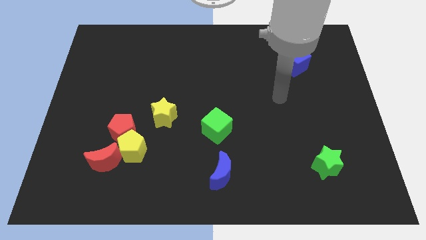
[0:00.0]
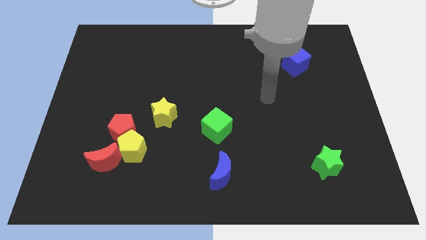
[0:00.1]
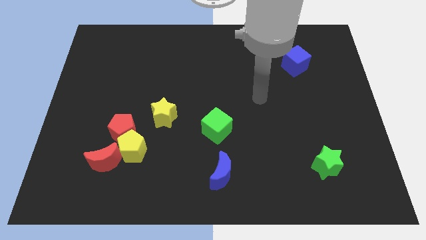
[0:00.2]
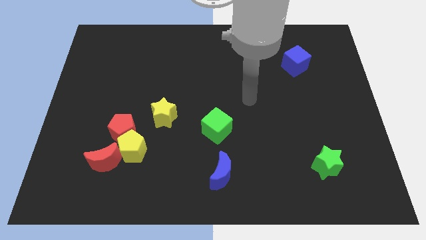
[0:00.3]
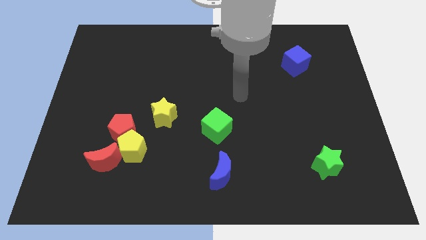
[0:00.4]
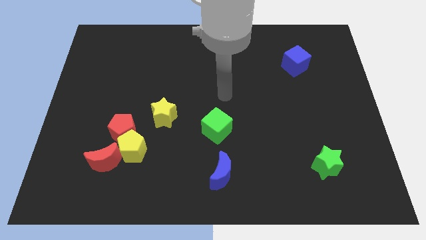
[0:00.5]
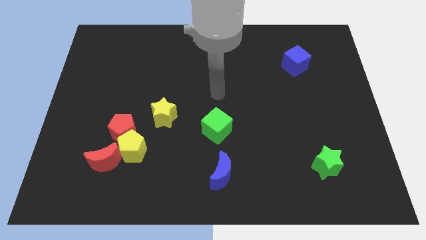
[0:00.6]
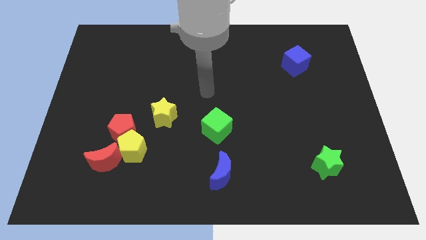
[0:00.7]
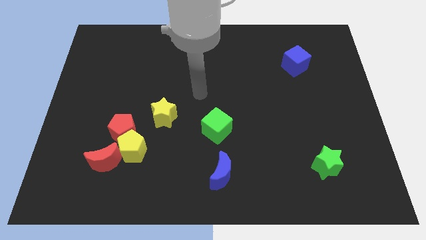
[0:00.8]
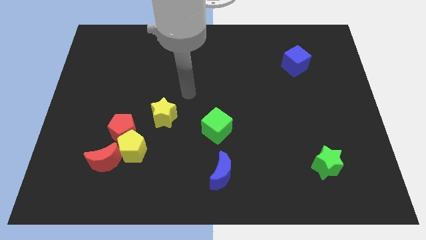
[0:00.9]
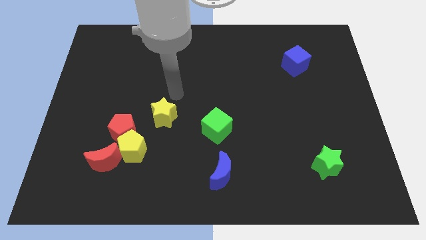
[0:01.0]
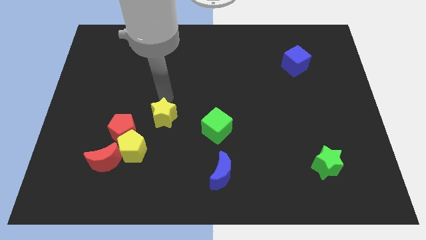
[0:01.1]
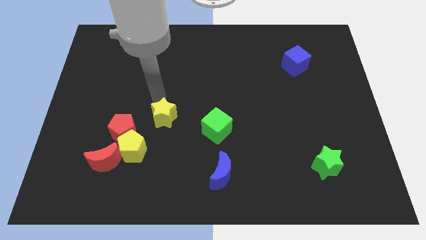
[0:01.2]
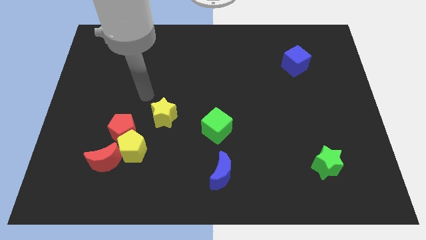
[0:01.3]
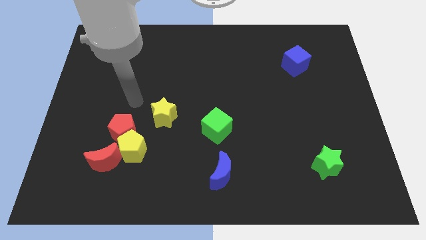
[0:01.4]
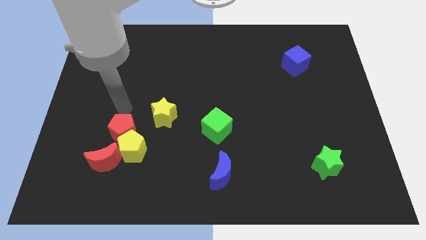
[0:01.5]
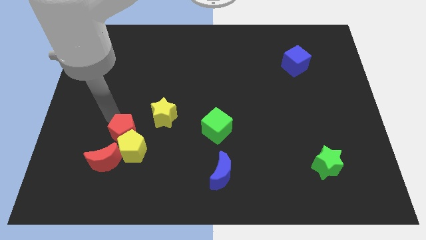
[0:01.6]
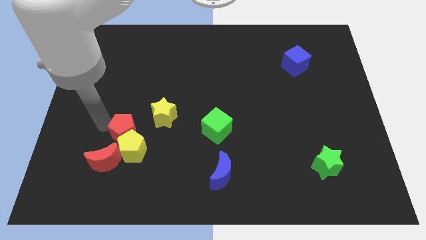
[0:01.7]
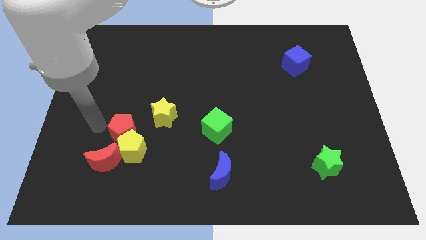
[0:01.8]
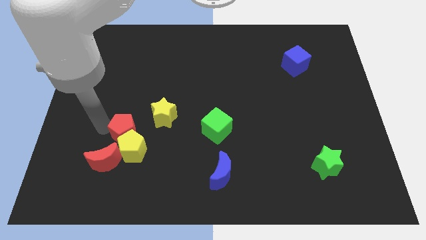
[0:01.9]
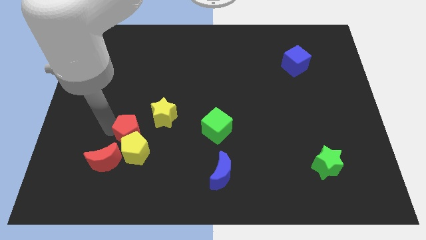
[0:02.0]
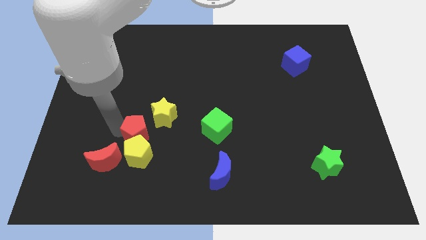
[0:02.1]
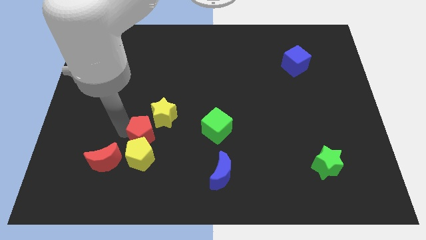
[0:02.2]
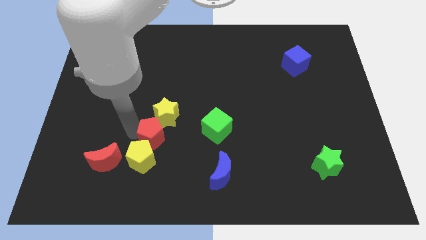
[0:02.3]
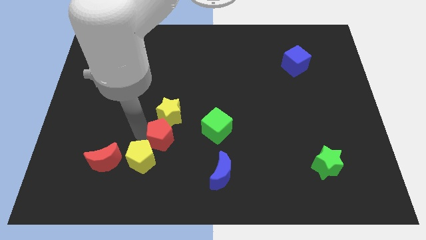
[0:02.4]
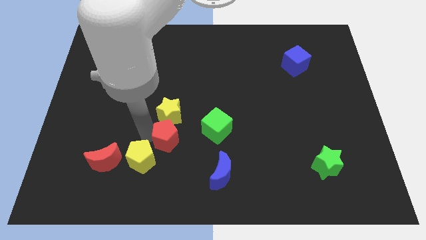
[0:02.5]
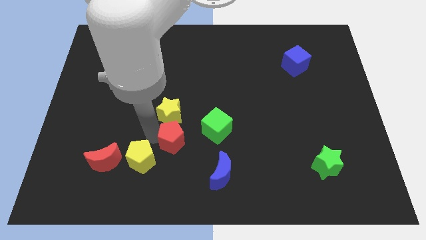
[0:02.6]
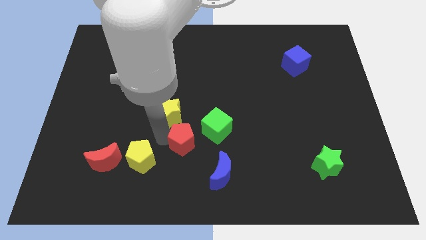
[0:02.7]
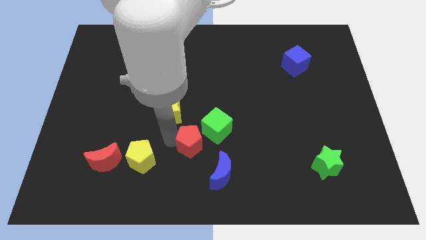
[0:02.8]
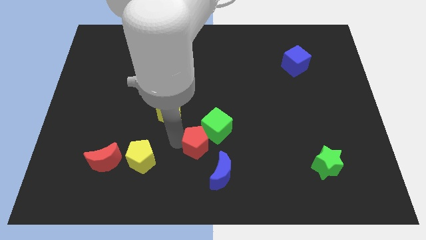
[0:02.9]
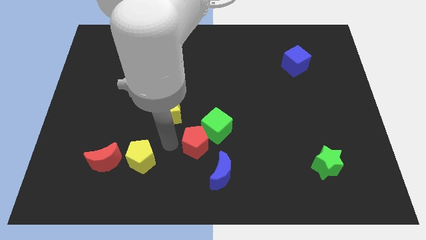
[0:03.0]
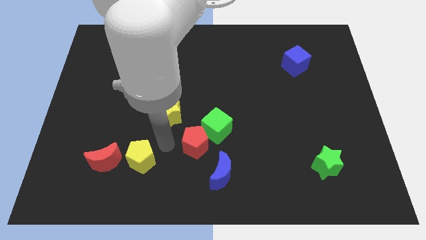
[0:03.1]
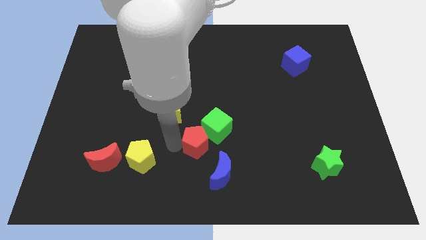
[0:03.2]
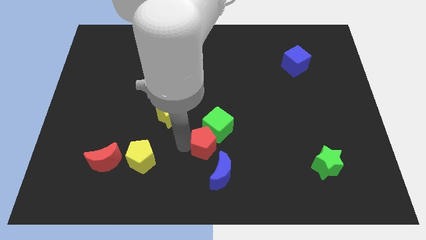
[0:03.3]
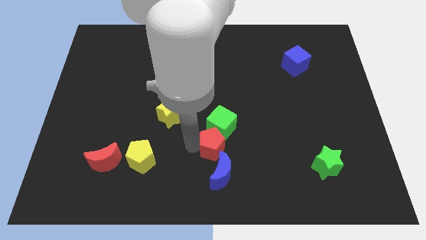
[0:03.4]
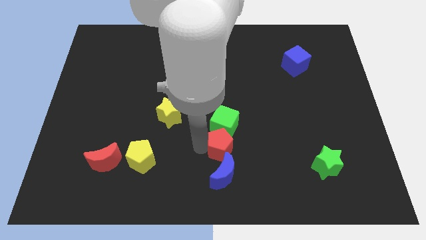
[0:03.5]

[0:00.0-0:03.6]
push the red pentagon to the right

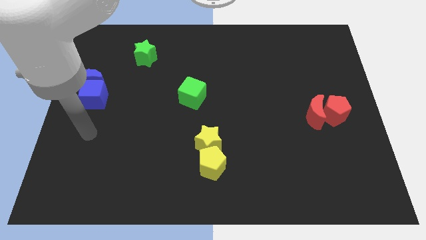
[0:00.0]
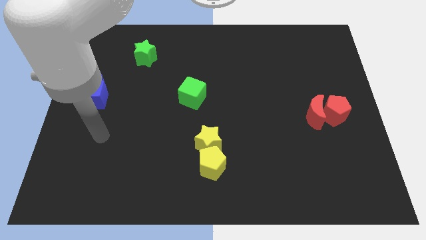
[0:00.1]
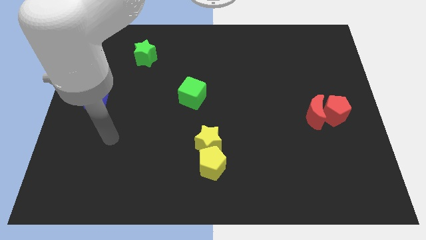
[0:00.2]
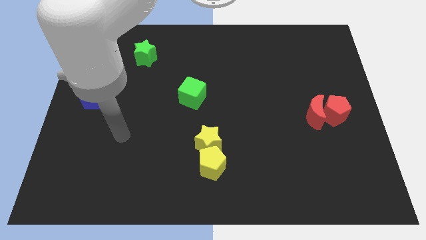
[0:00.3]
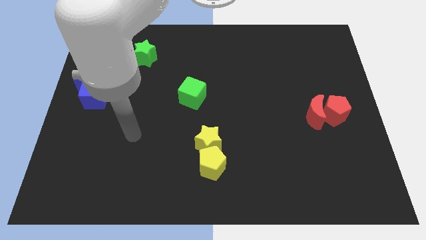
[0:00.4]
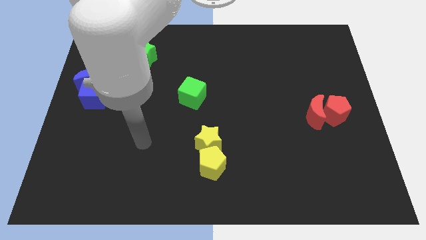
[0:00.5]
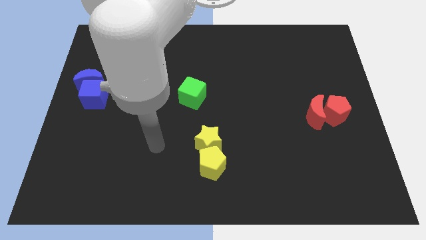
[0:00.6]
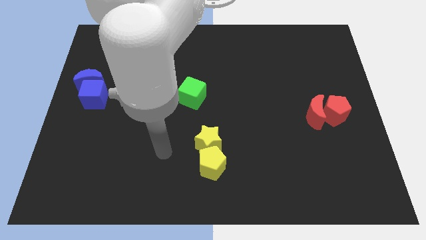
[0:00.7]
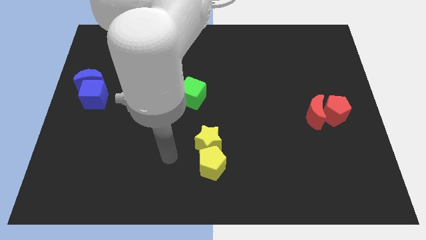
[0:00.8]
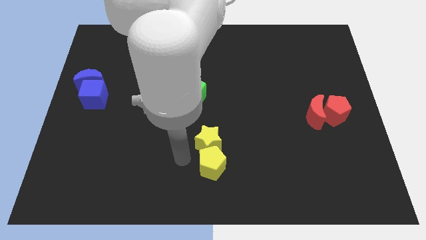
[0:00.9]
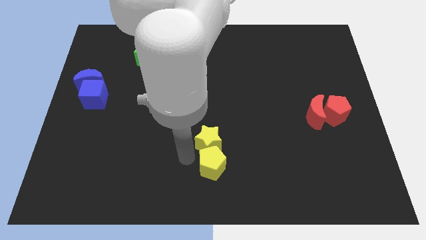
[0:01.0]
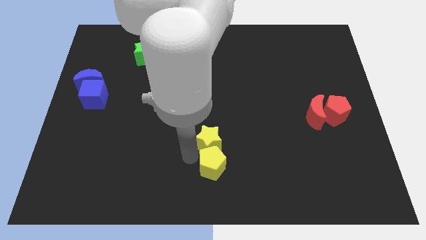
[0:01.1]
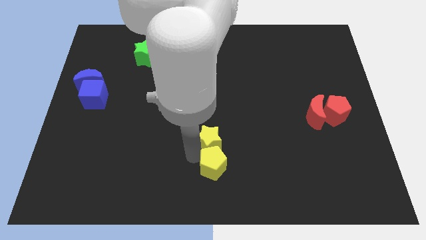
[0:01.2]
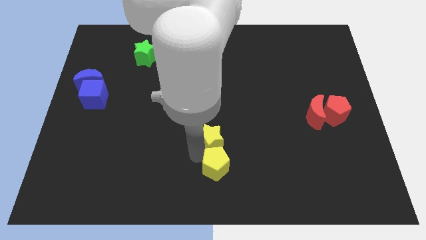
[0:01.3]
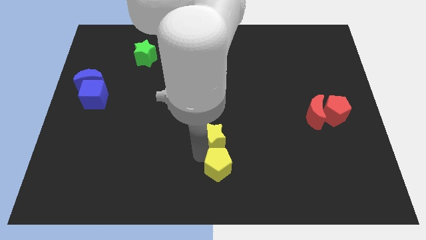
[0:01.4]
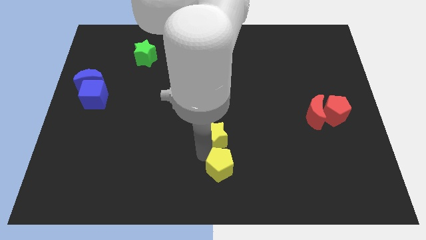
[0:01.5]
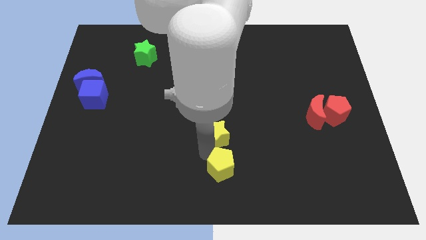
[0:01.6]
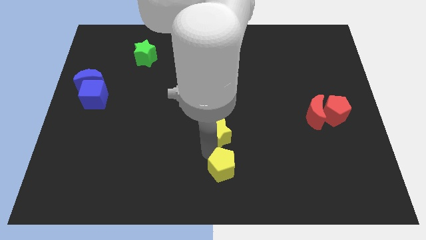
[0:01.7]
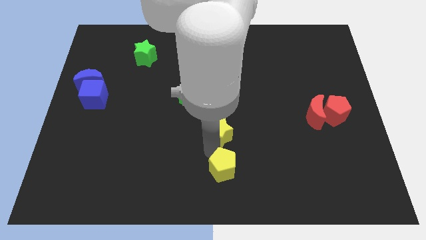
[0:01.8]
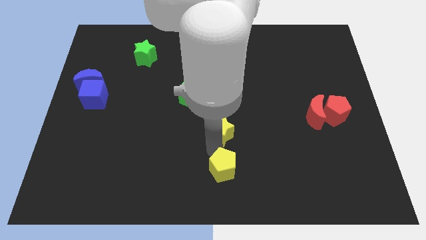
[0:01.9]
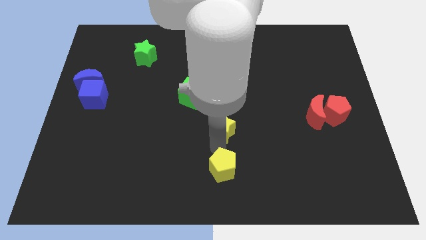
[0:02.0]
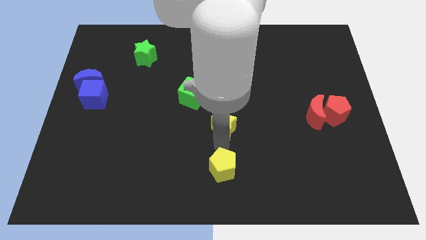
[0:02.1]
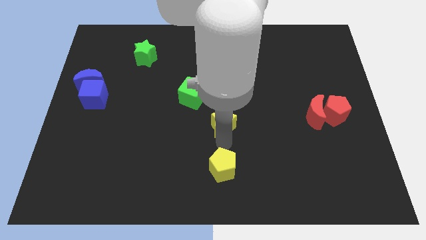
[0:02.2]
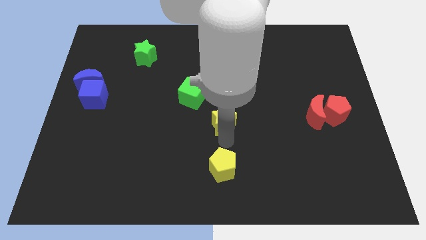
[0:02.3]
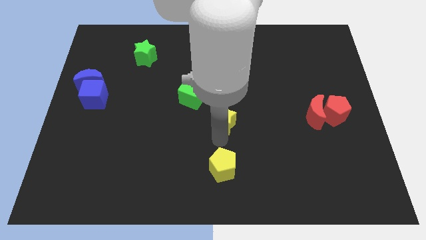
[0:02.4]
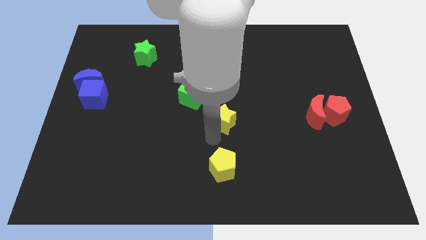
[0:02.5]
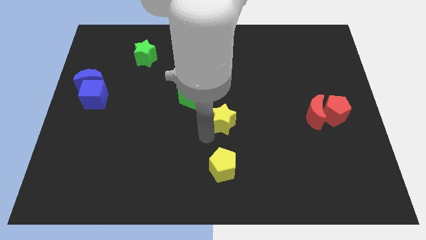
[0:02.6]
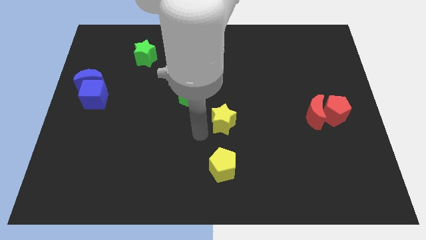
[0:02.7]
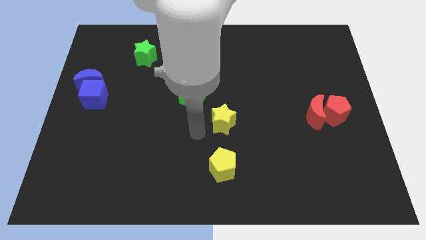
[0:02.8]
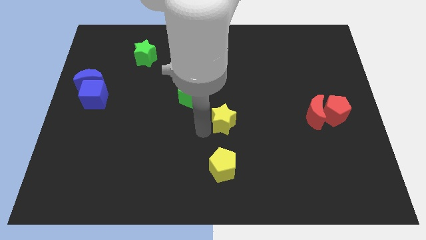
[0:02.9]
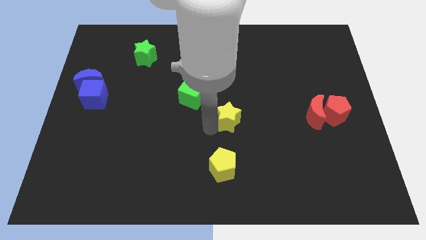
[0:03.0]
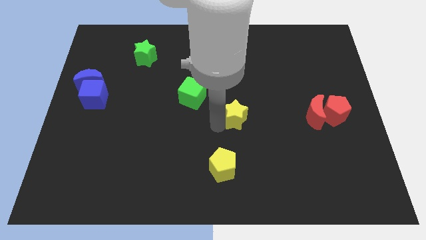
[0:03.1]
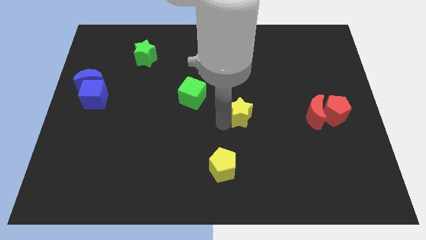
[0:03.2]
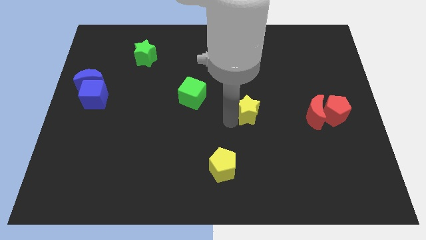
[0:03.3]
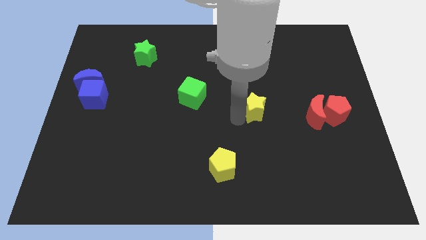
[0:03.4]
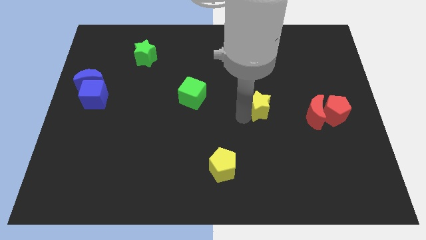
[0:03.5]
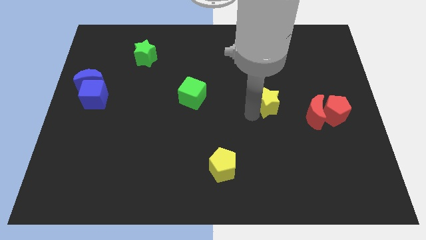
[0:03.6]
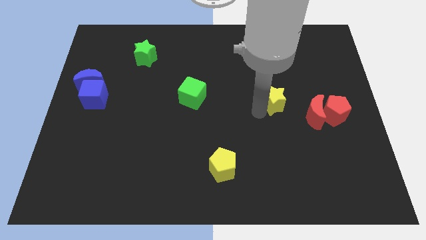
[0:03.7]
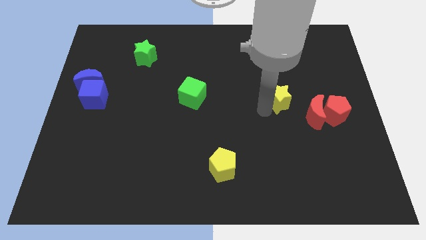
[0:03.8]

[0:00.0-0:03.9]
move the yellow star upwards and then to the right

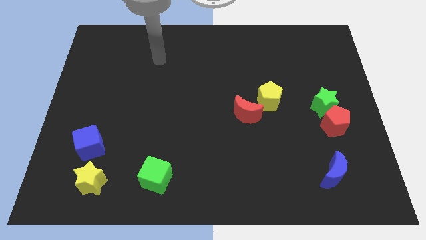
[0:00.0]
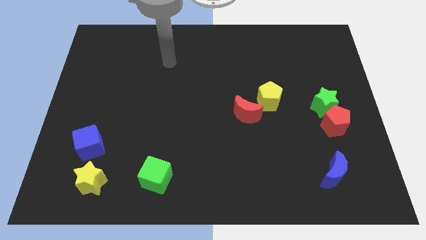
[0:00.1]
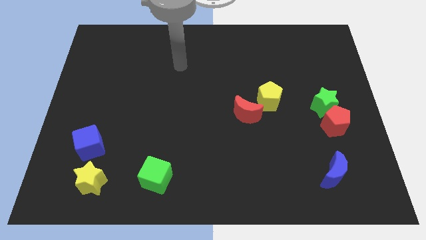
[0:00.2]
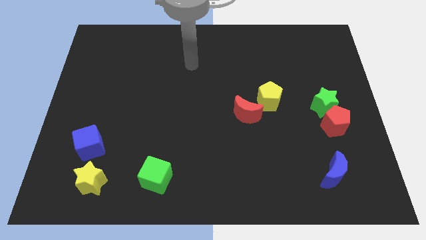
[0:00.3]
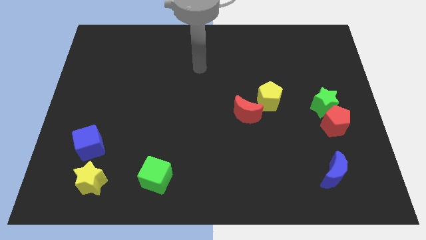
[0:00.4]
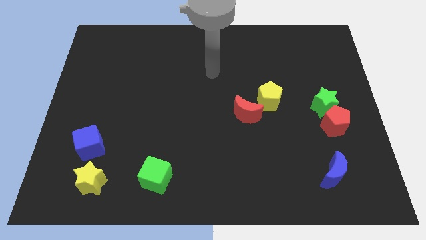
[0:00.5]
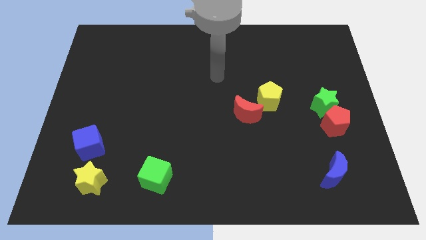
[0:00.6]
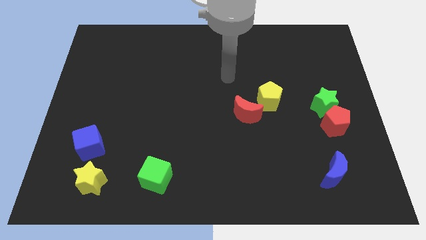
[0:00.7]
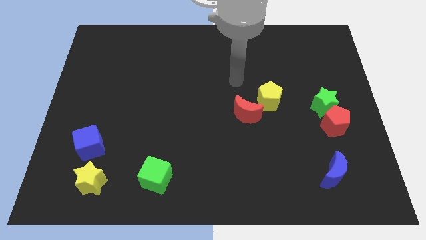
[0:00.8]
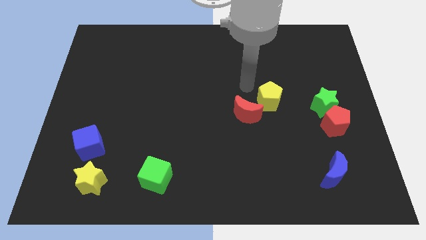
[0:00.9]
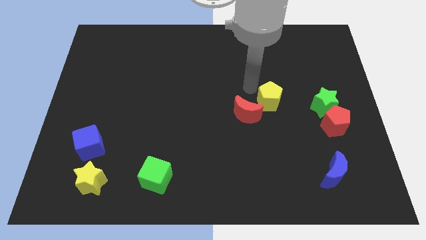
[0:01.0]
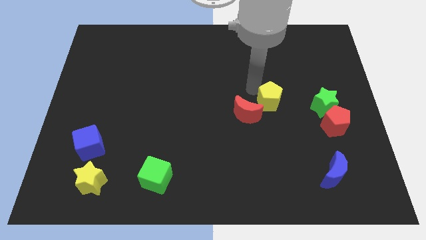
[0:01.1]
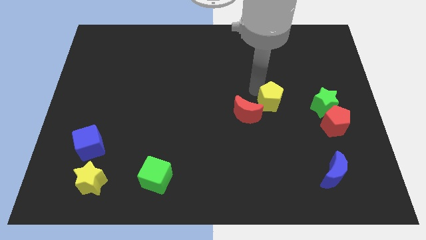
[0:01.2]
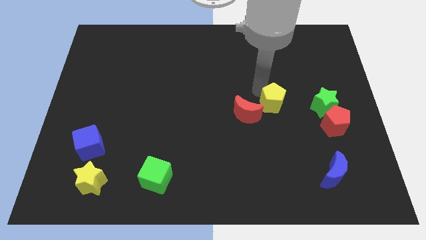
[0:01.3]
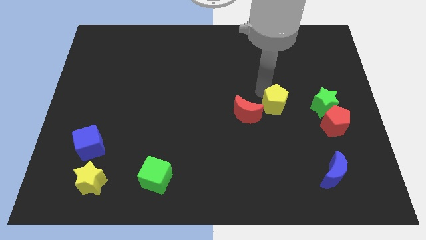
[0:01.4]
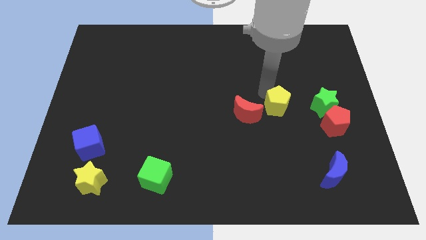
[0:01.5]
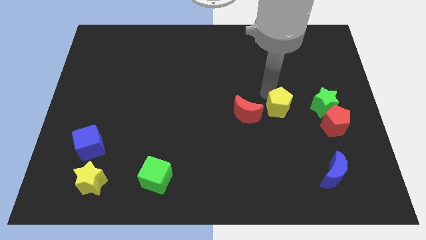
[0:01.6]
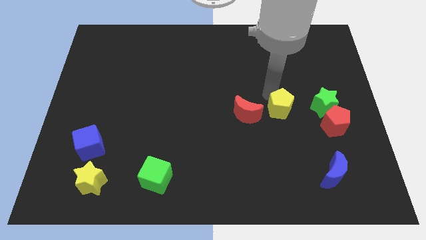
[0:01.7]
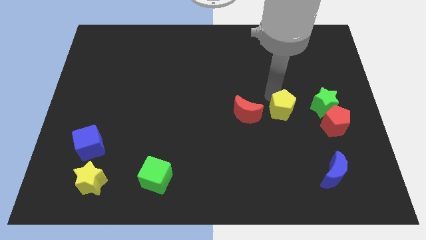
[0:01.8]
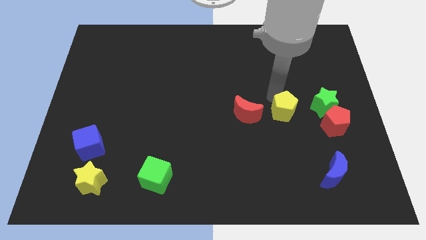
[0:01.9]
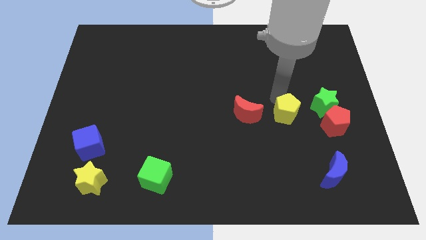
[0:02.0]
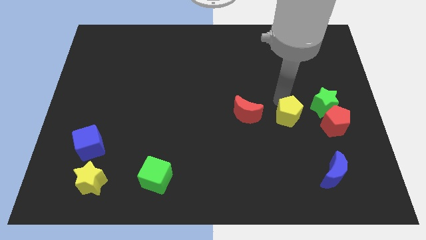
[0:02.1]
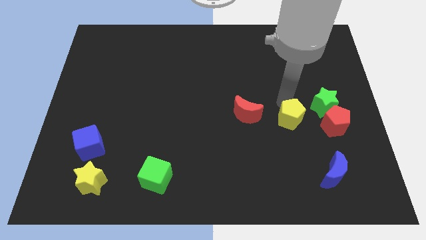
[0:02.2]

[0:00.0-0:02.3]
move the yellow pentagon a little diagonally downwards and right
